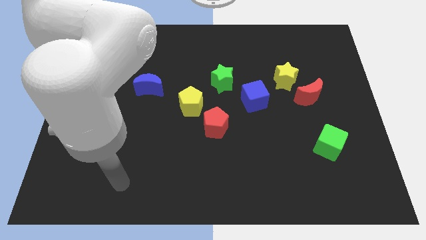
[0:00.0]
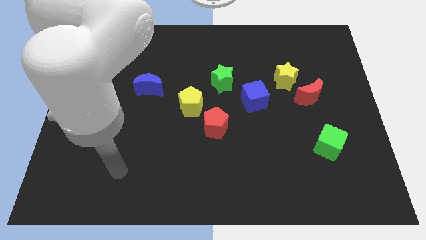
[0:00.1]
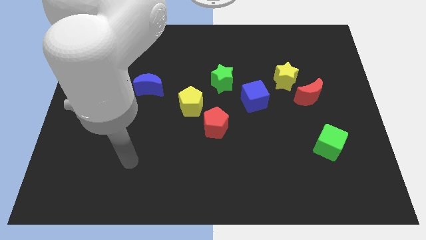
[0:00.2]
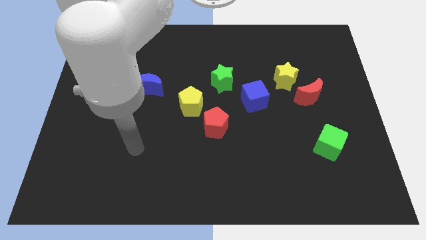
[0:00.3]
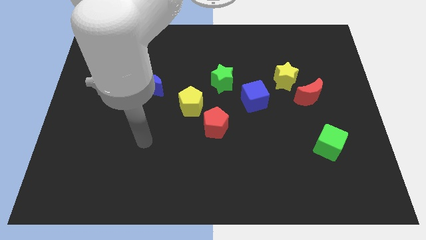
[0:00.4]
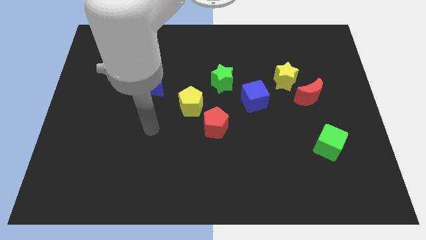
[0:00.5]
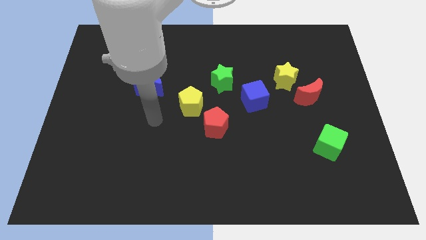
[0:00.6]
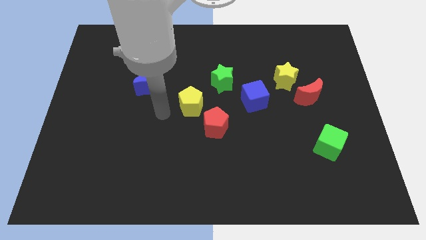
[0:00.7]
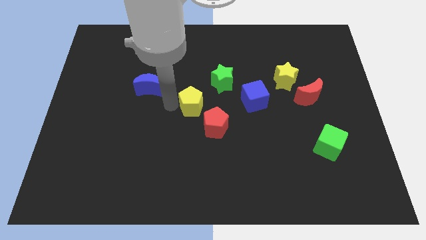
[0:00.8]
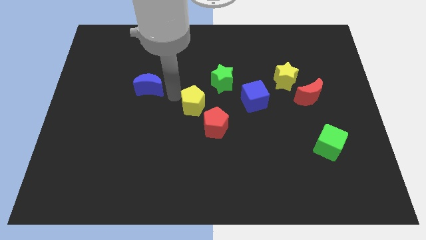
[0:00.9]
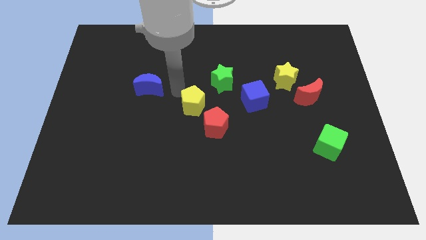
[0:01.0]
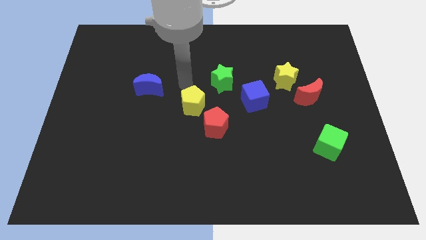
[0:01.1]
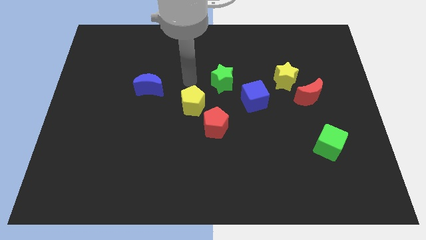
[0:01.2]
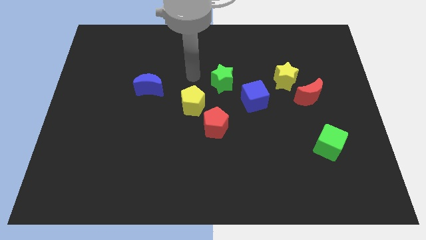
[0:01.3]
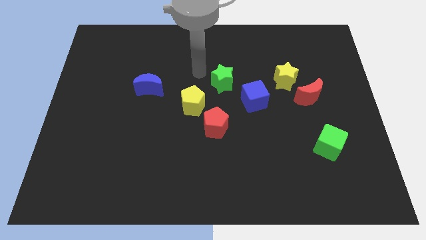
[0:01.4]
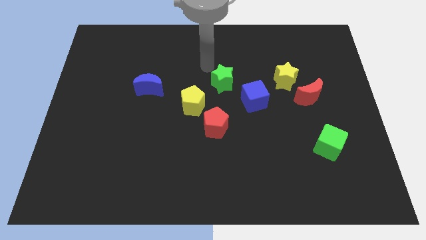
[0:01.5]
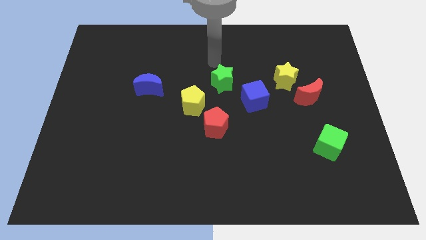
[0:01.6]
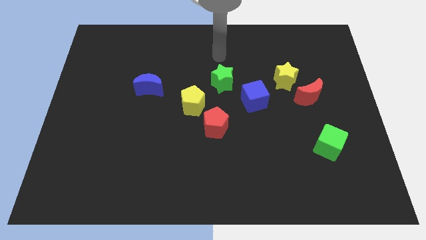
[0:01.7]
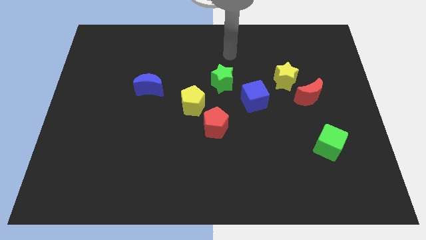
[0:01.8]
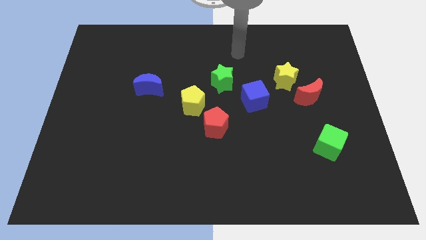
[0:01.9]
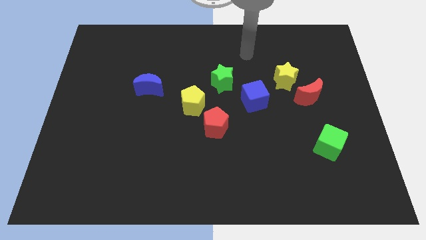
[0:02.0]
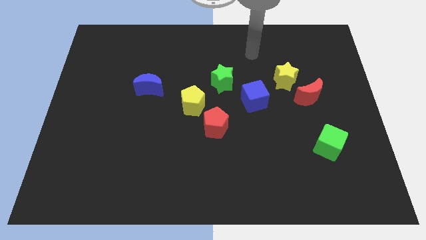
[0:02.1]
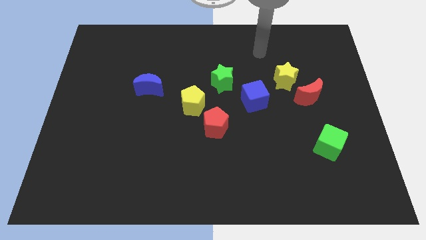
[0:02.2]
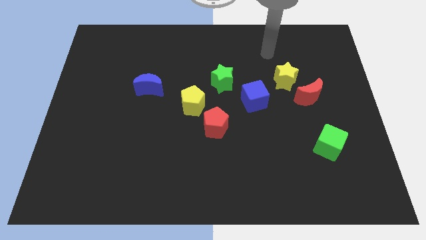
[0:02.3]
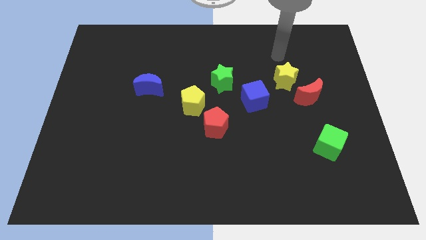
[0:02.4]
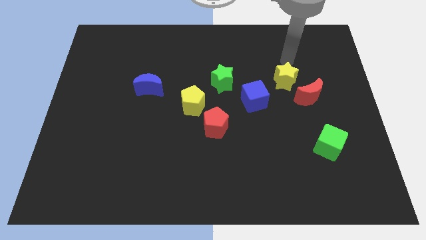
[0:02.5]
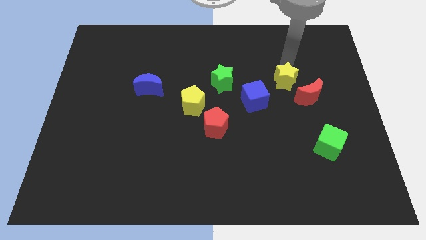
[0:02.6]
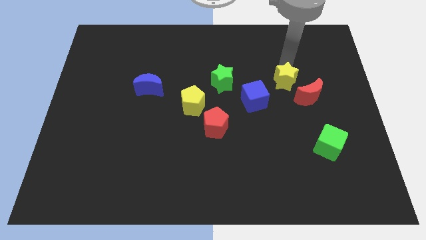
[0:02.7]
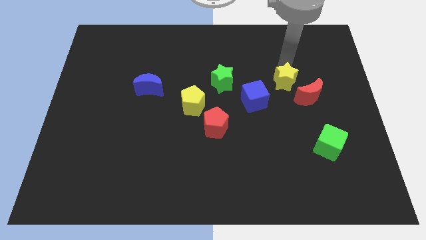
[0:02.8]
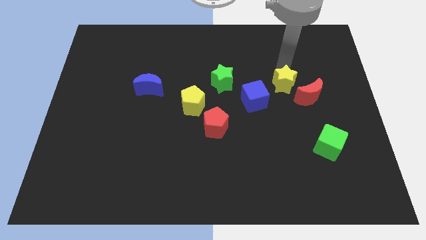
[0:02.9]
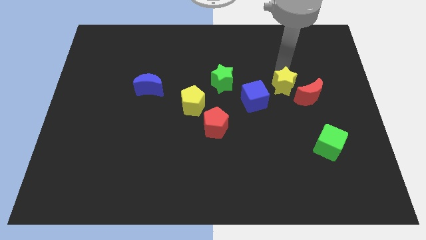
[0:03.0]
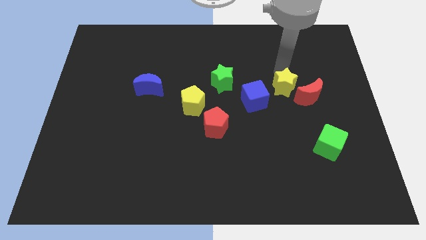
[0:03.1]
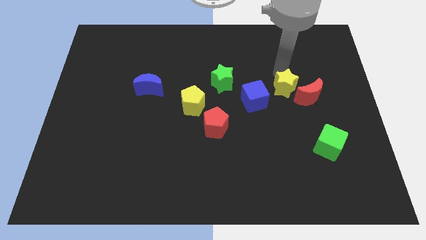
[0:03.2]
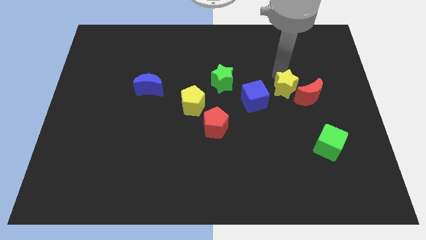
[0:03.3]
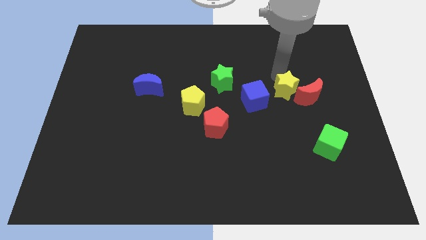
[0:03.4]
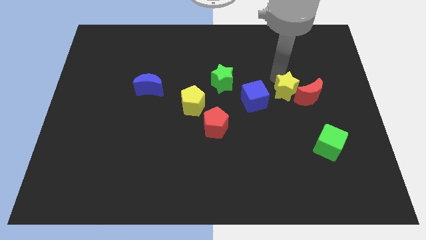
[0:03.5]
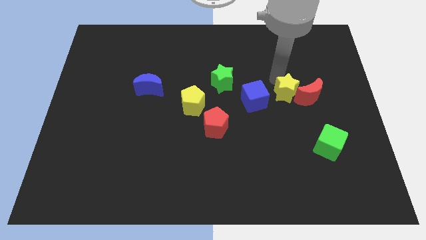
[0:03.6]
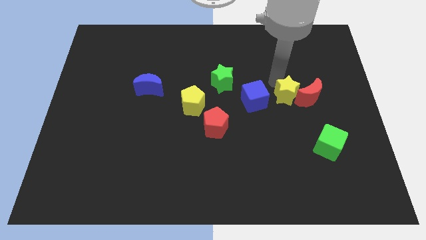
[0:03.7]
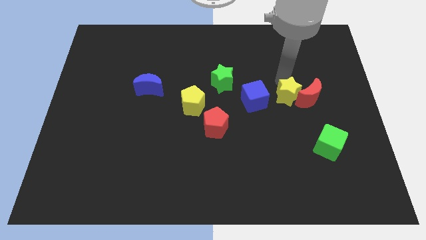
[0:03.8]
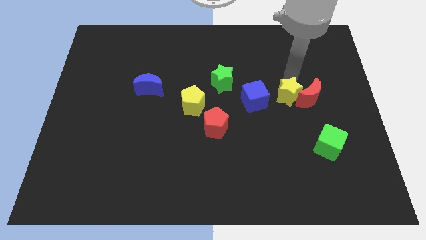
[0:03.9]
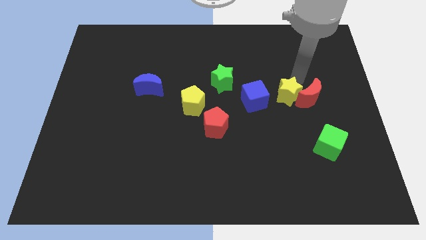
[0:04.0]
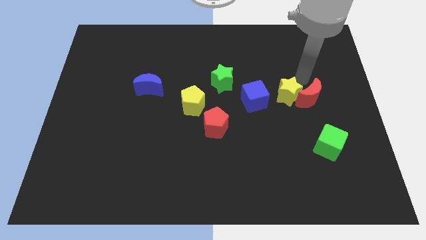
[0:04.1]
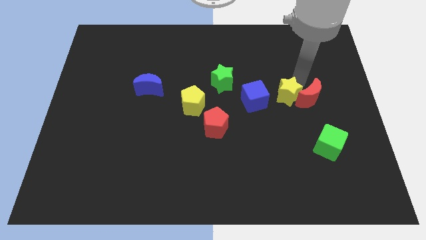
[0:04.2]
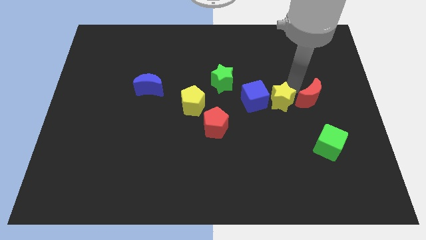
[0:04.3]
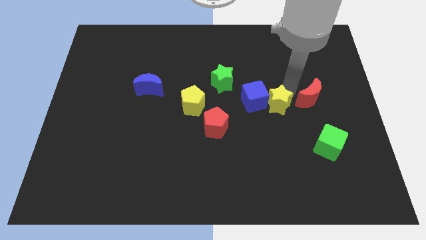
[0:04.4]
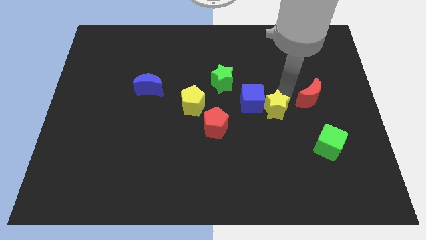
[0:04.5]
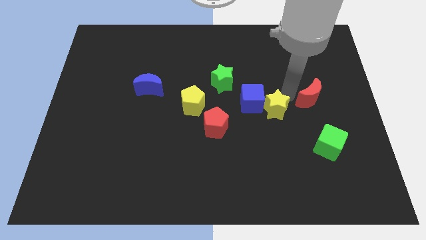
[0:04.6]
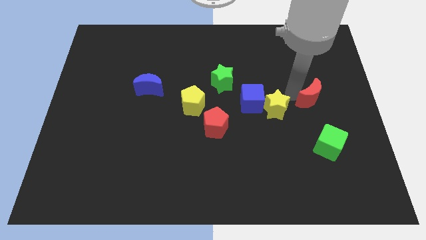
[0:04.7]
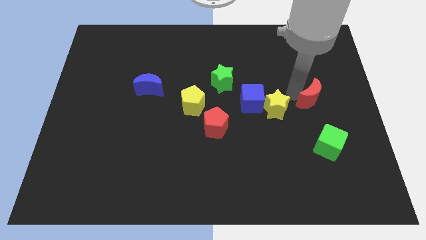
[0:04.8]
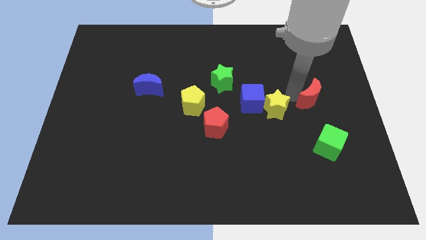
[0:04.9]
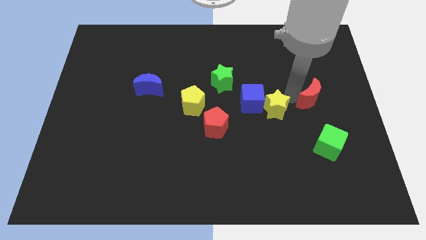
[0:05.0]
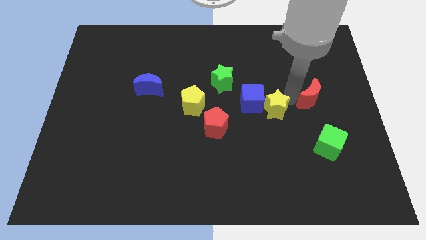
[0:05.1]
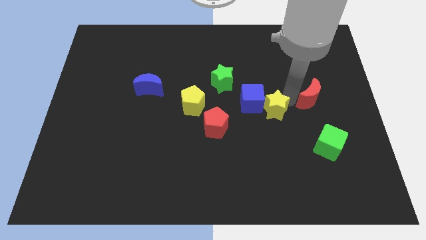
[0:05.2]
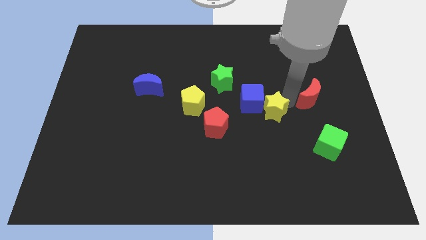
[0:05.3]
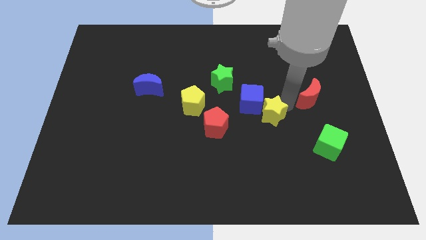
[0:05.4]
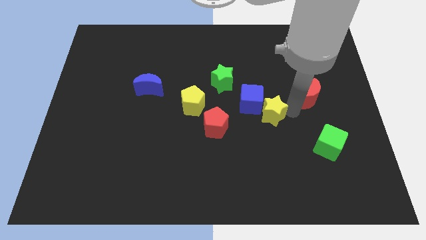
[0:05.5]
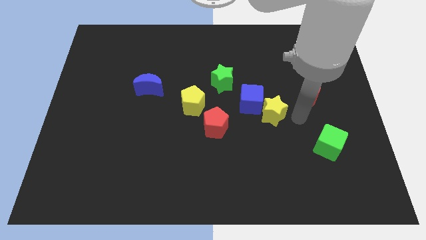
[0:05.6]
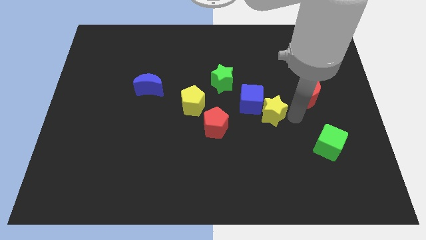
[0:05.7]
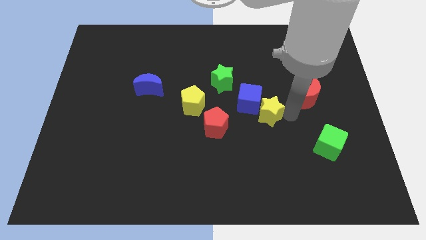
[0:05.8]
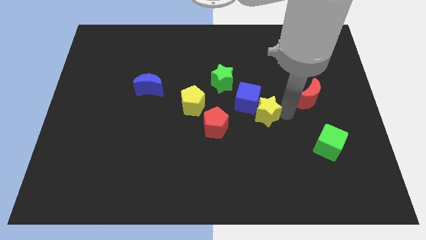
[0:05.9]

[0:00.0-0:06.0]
put the yellow star to the middle of the board
